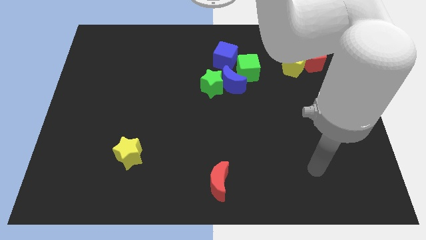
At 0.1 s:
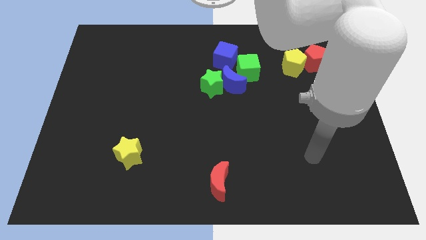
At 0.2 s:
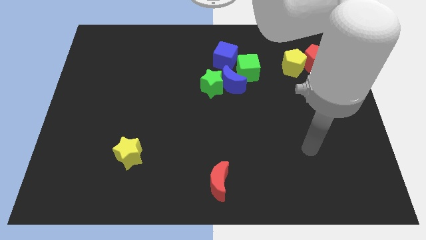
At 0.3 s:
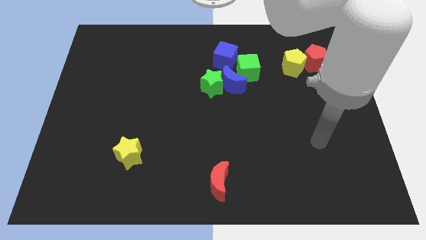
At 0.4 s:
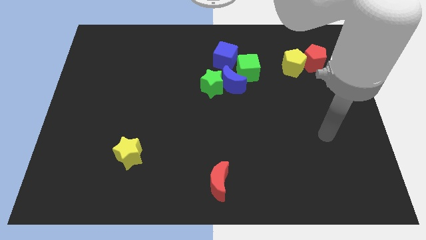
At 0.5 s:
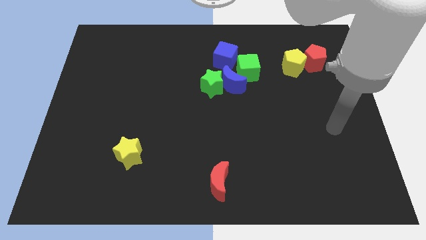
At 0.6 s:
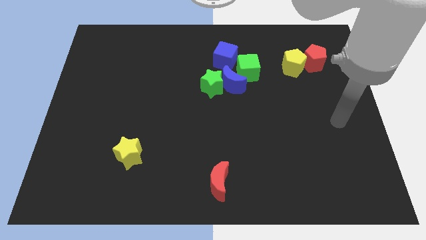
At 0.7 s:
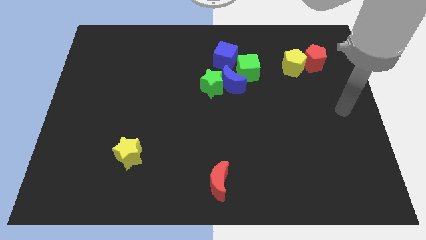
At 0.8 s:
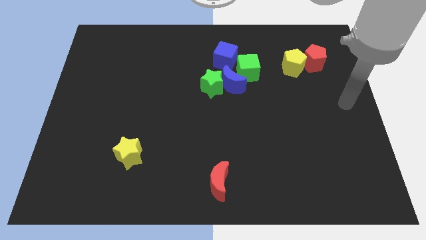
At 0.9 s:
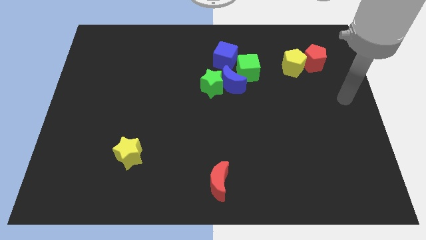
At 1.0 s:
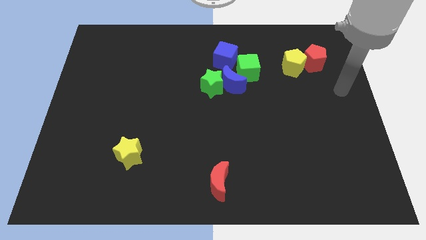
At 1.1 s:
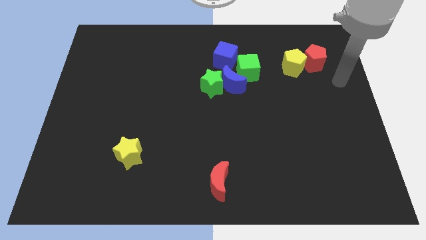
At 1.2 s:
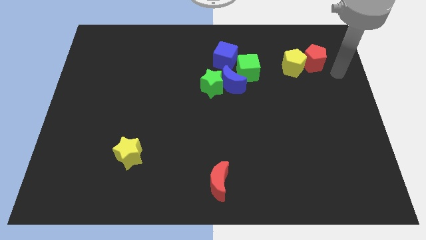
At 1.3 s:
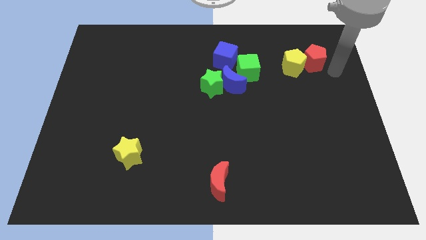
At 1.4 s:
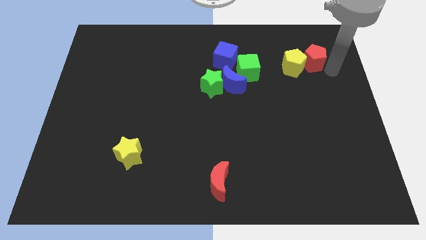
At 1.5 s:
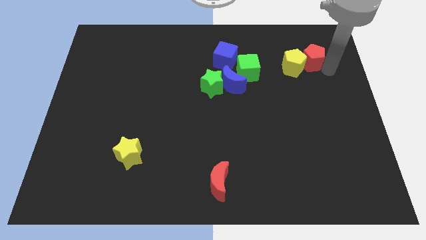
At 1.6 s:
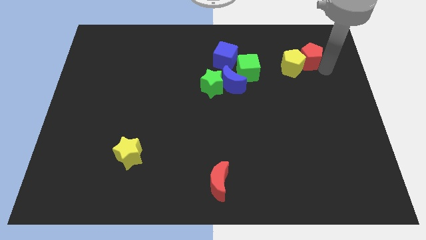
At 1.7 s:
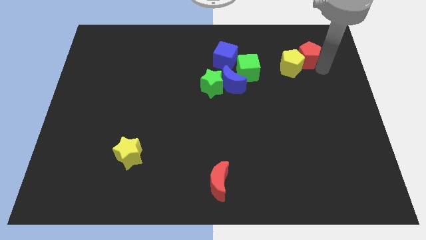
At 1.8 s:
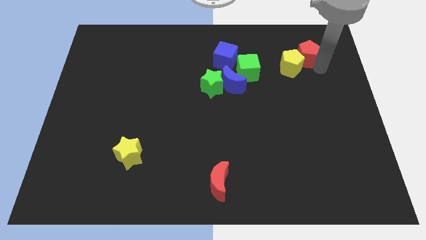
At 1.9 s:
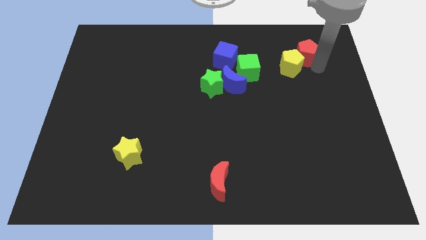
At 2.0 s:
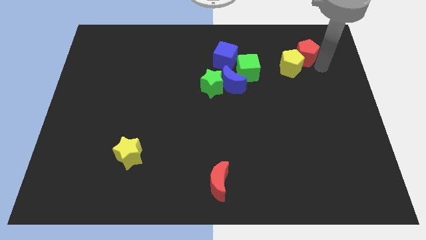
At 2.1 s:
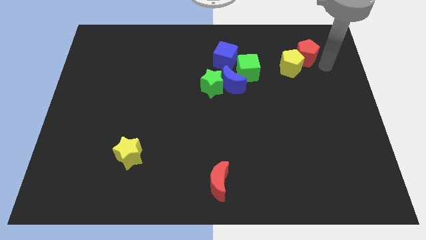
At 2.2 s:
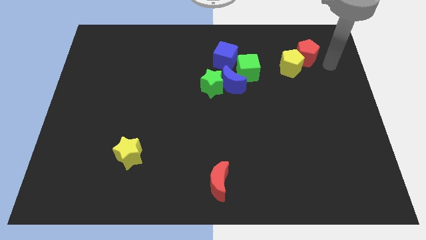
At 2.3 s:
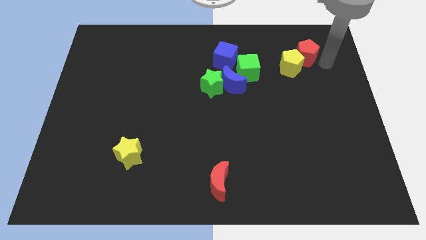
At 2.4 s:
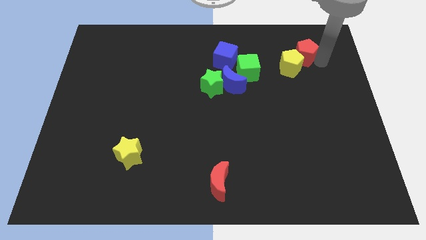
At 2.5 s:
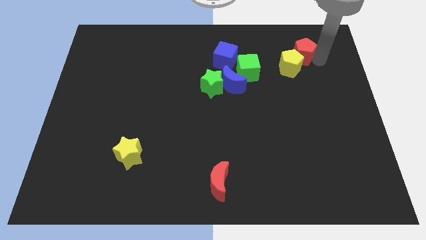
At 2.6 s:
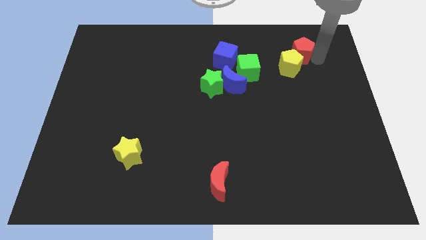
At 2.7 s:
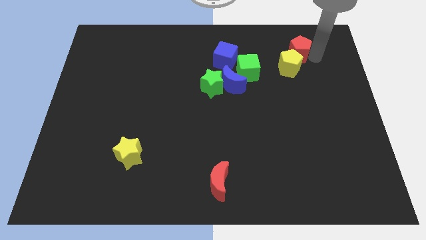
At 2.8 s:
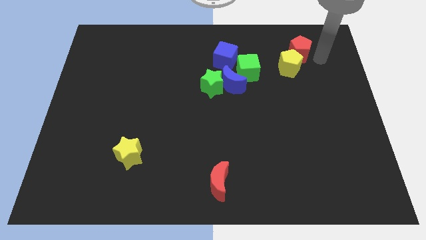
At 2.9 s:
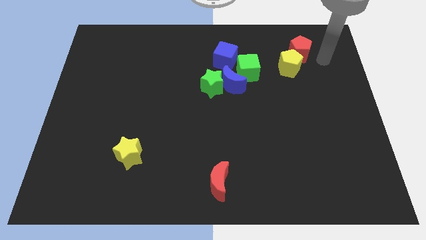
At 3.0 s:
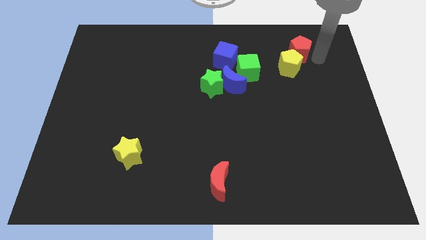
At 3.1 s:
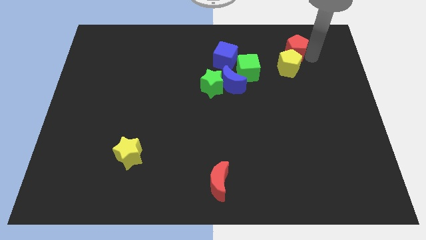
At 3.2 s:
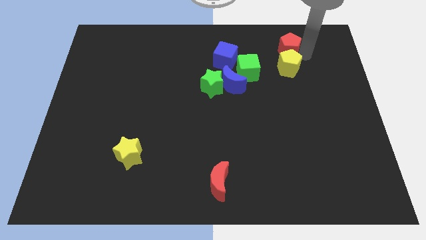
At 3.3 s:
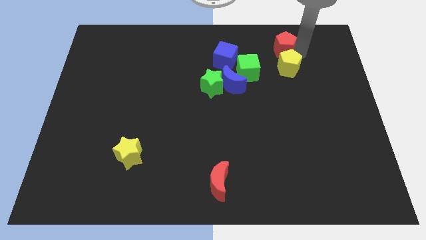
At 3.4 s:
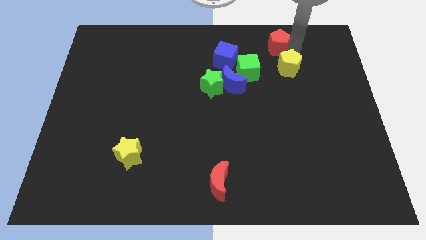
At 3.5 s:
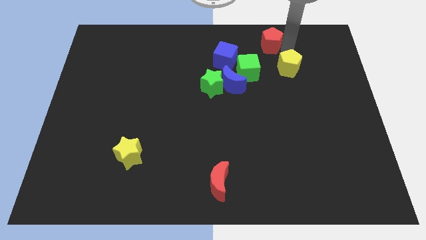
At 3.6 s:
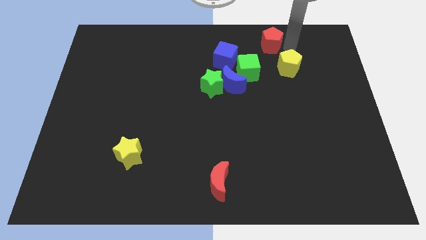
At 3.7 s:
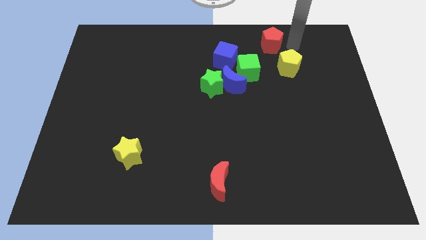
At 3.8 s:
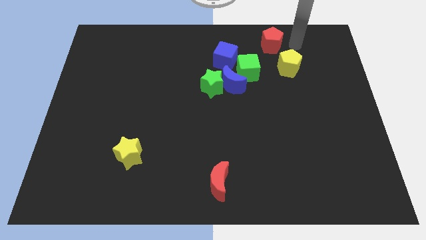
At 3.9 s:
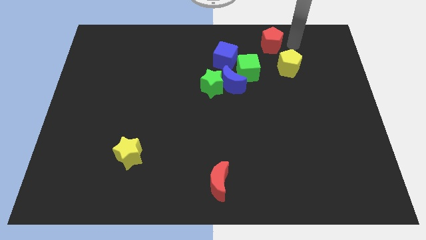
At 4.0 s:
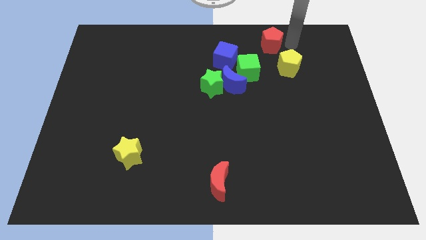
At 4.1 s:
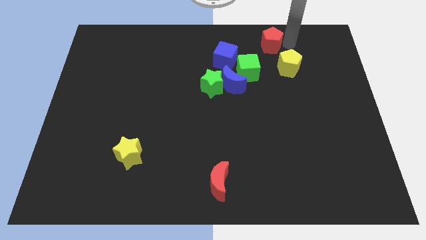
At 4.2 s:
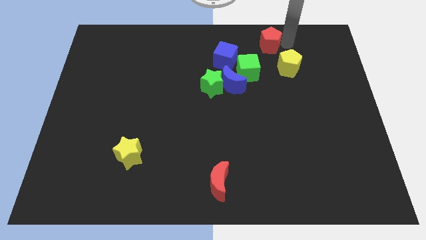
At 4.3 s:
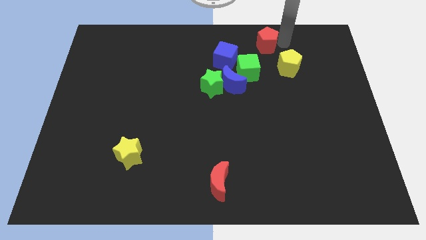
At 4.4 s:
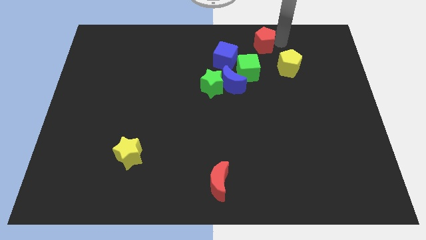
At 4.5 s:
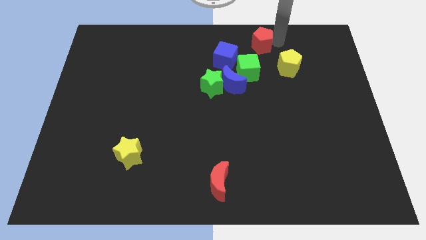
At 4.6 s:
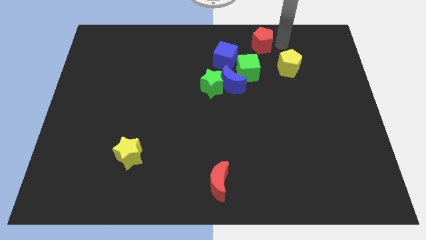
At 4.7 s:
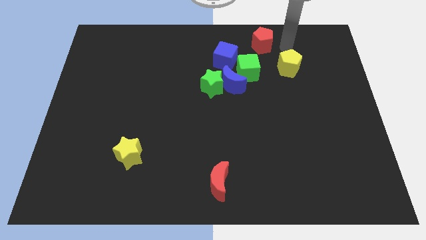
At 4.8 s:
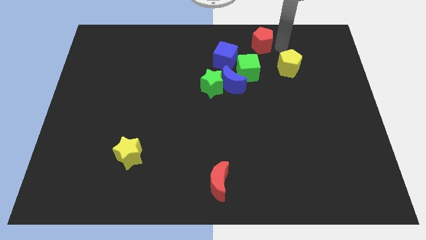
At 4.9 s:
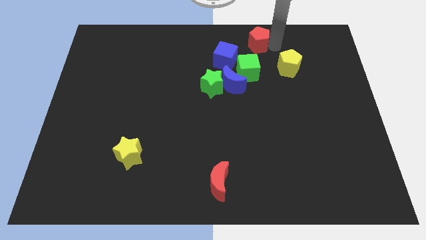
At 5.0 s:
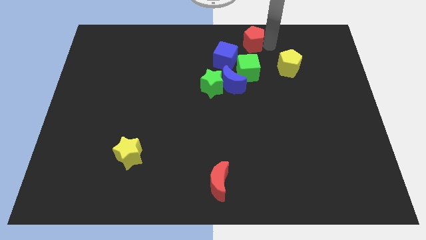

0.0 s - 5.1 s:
move the red pentagon to the towards your base

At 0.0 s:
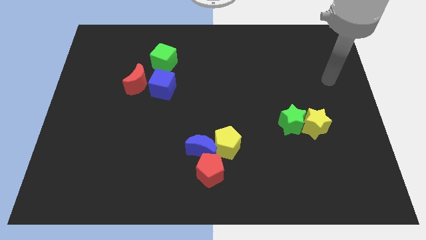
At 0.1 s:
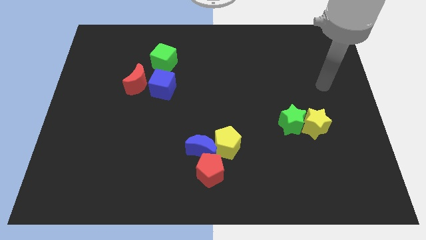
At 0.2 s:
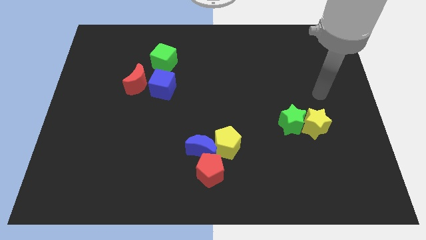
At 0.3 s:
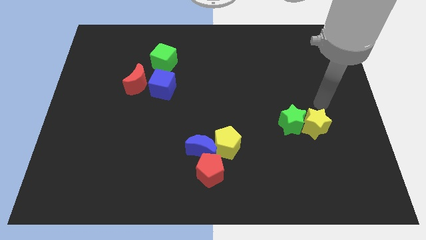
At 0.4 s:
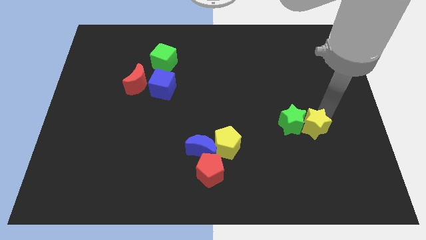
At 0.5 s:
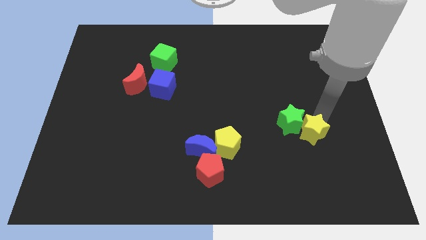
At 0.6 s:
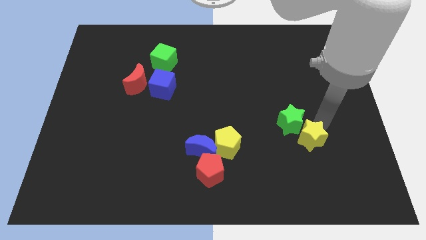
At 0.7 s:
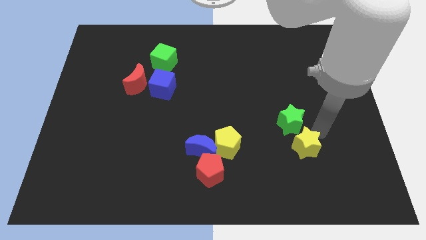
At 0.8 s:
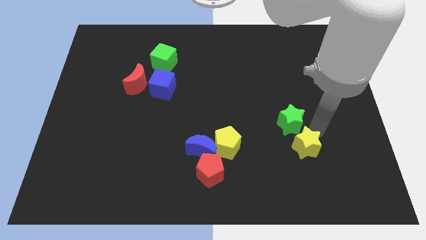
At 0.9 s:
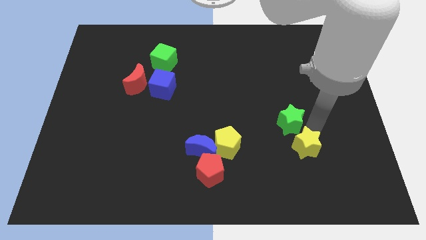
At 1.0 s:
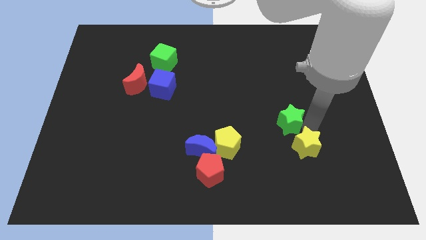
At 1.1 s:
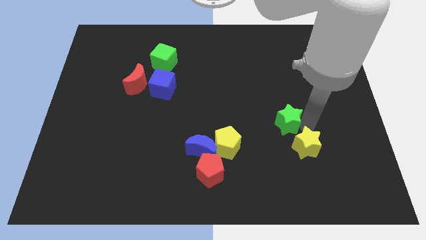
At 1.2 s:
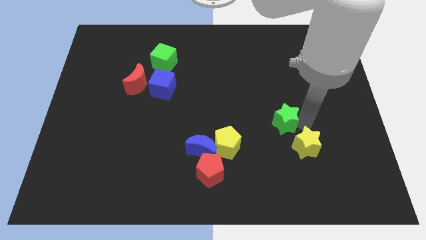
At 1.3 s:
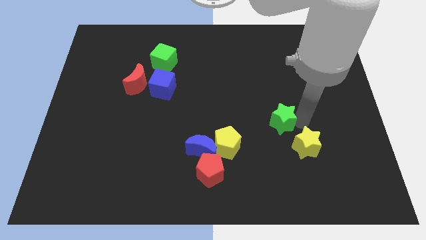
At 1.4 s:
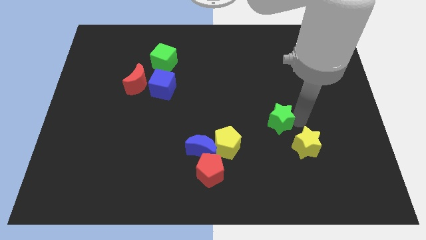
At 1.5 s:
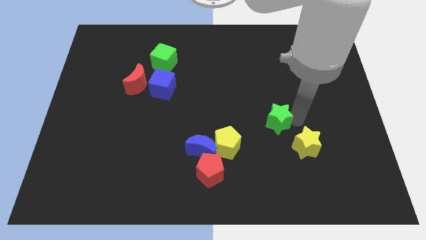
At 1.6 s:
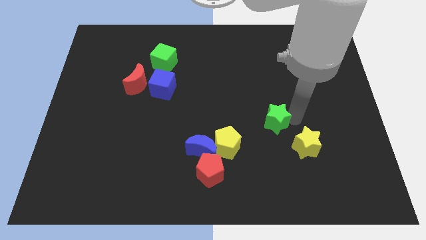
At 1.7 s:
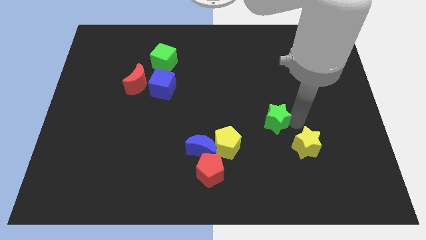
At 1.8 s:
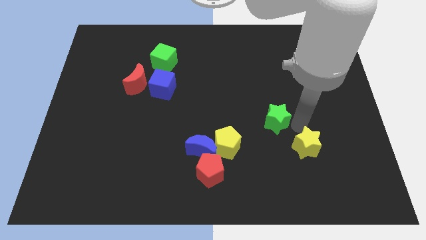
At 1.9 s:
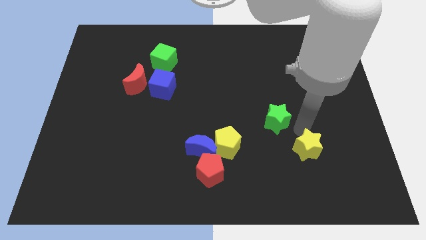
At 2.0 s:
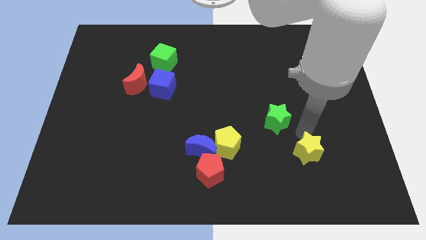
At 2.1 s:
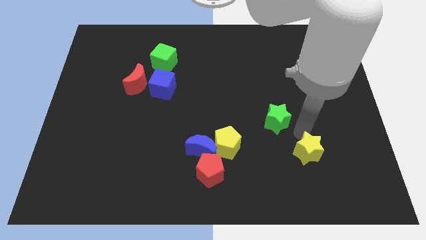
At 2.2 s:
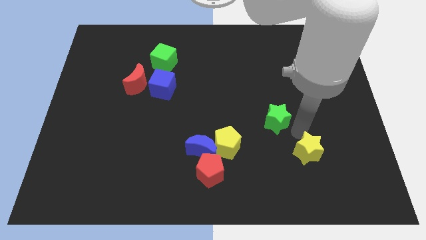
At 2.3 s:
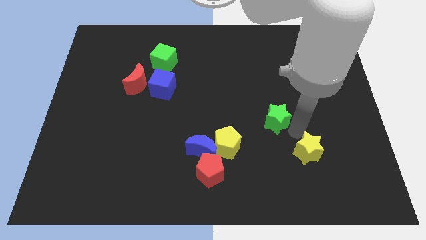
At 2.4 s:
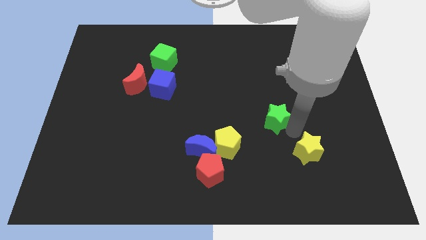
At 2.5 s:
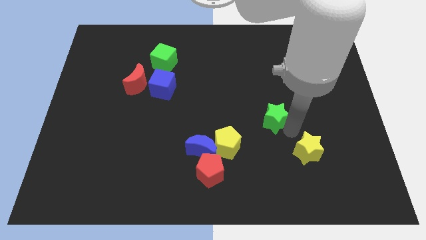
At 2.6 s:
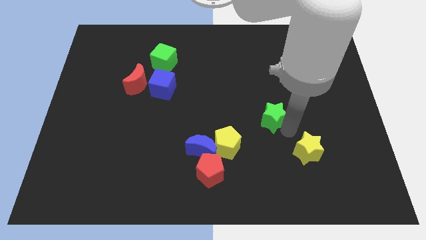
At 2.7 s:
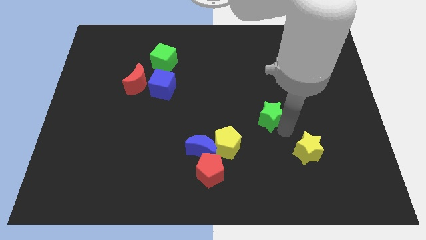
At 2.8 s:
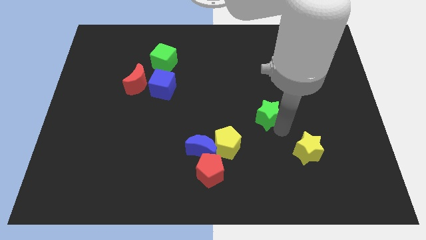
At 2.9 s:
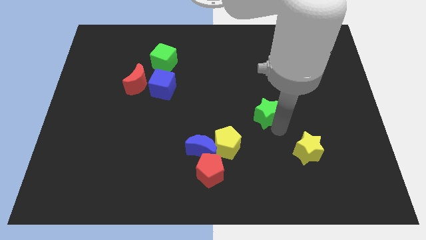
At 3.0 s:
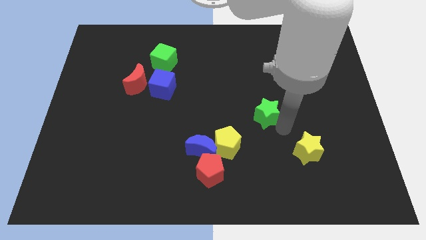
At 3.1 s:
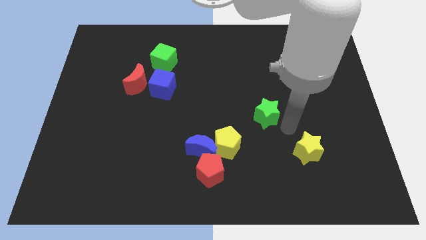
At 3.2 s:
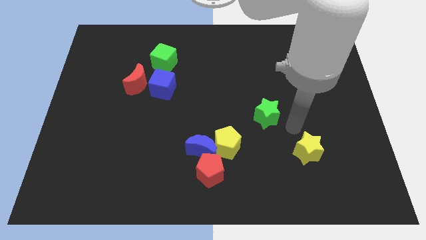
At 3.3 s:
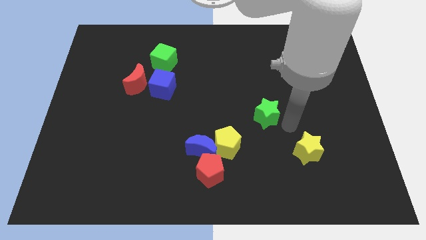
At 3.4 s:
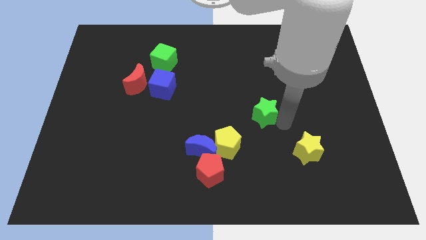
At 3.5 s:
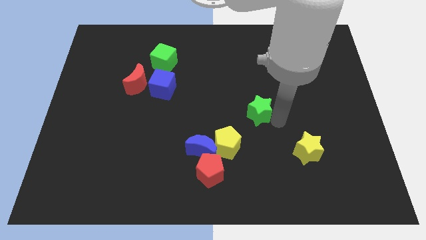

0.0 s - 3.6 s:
push the green star to the center of the board
